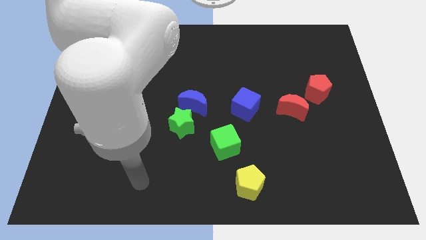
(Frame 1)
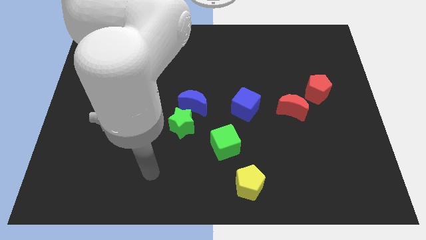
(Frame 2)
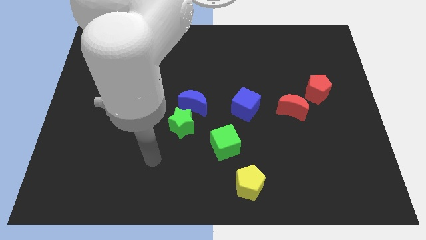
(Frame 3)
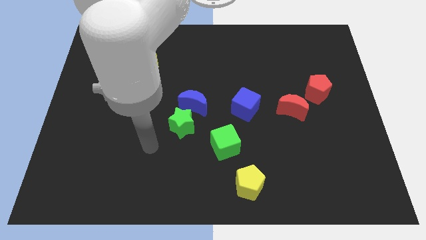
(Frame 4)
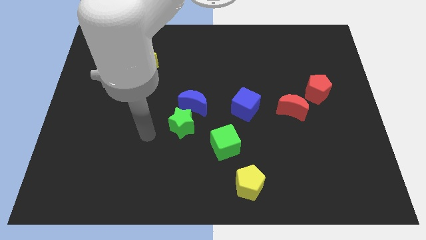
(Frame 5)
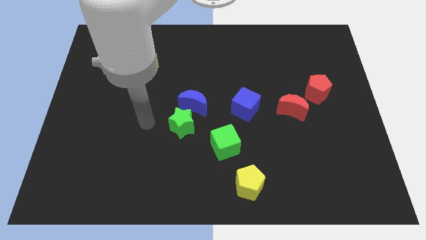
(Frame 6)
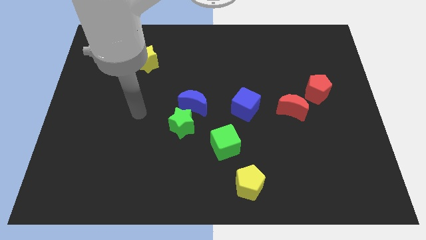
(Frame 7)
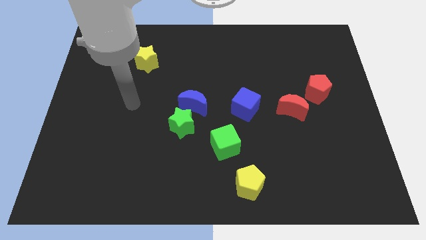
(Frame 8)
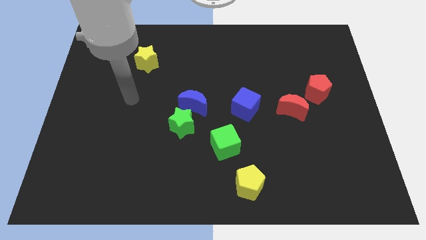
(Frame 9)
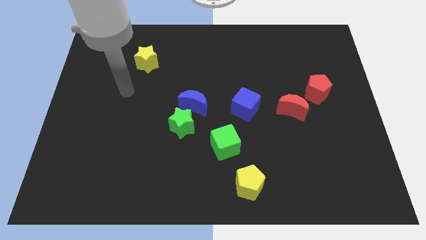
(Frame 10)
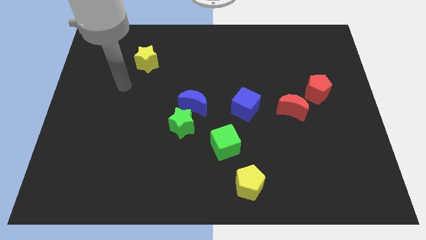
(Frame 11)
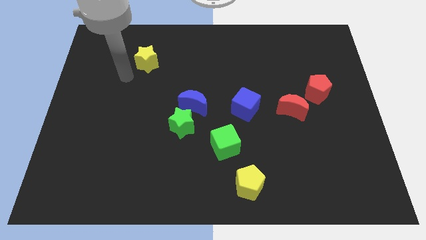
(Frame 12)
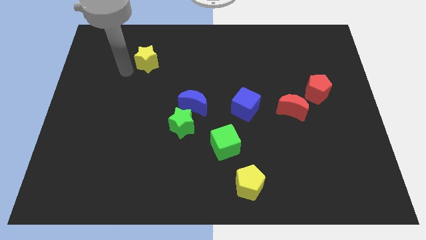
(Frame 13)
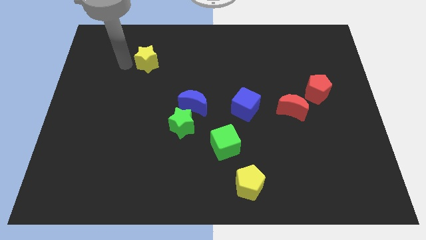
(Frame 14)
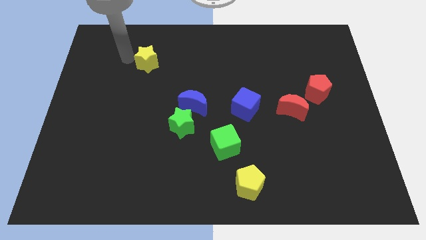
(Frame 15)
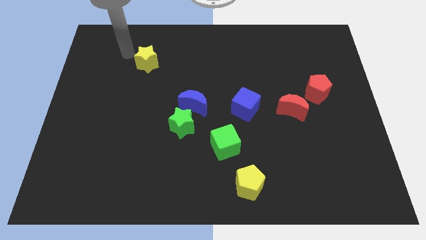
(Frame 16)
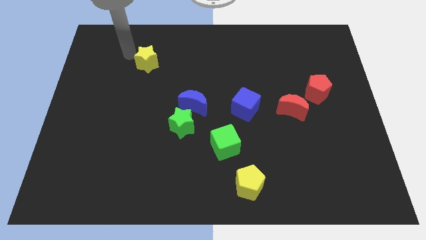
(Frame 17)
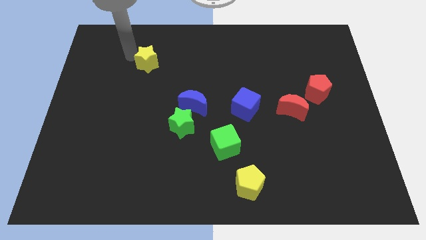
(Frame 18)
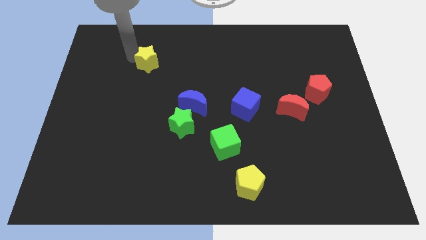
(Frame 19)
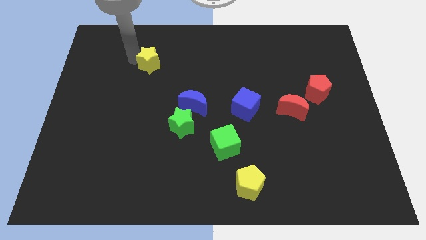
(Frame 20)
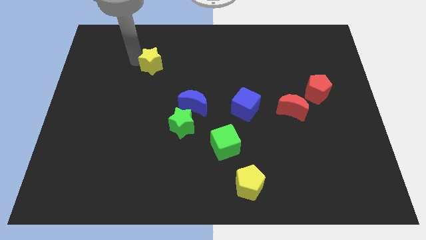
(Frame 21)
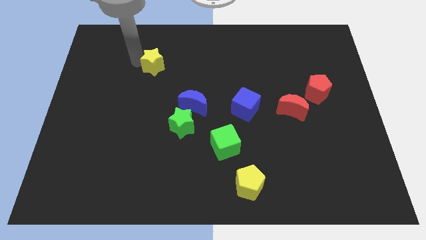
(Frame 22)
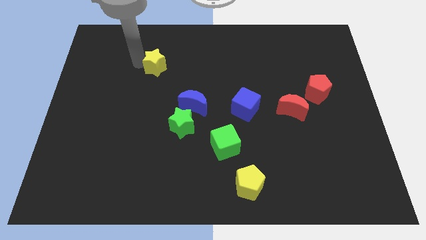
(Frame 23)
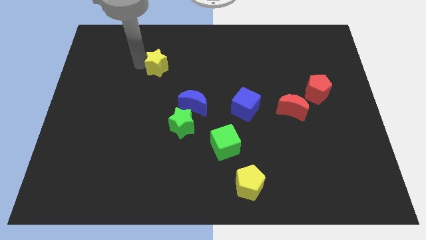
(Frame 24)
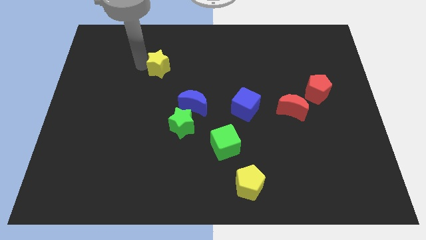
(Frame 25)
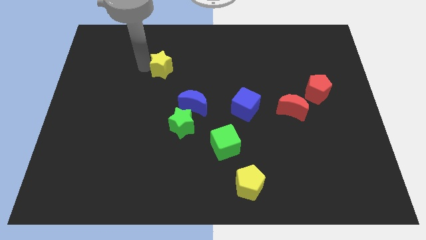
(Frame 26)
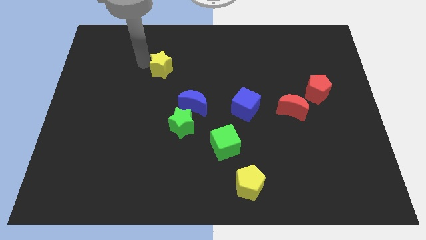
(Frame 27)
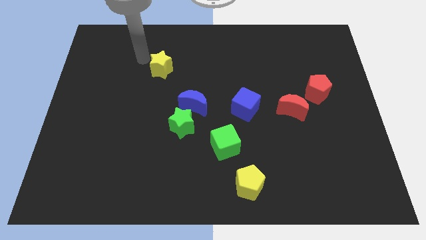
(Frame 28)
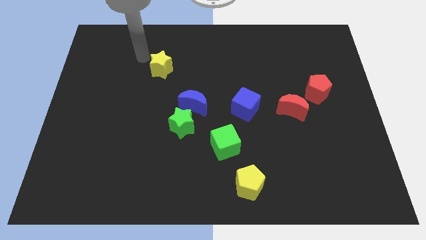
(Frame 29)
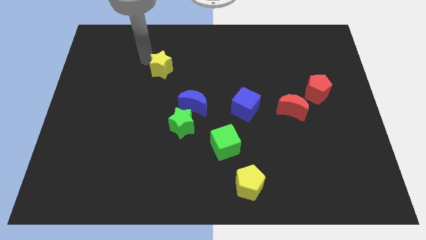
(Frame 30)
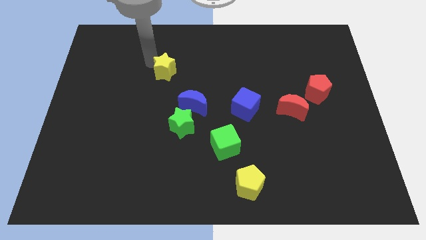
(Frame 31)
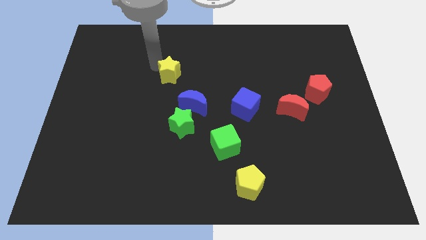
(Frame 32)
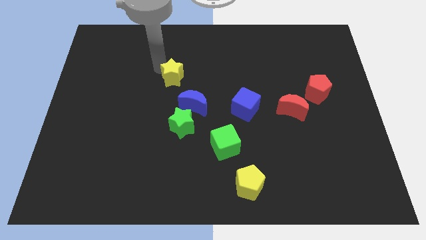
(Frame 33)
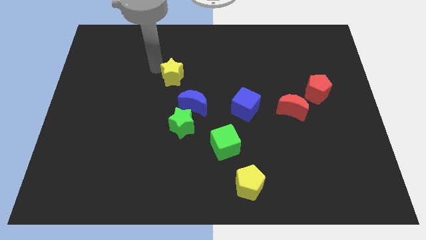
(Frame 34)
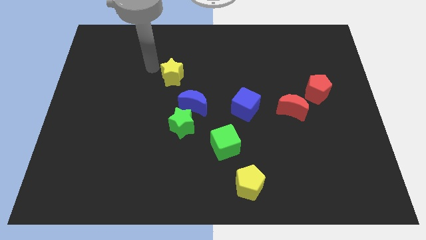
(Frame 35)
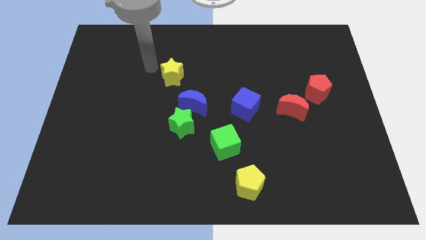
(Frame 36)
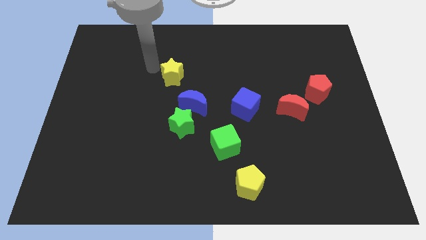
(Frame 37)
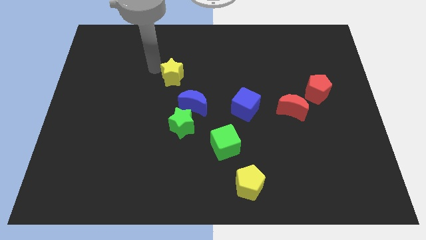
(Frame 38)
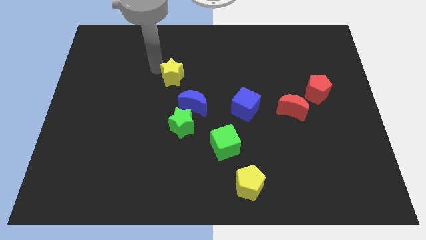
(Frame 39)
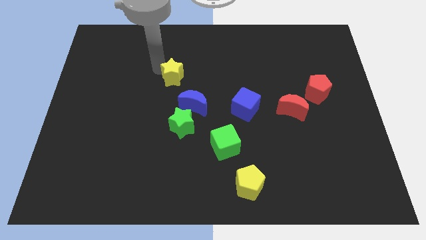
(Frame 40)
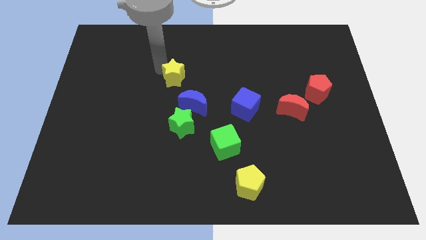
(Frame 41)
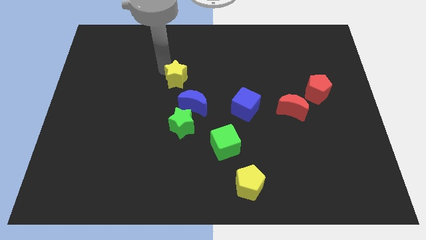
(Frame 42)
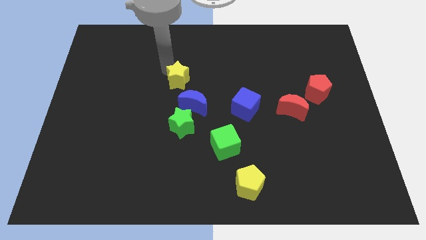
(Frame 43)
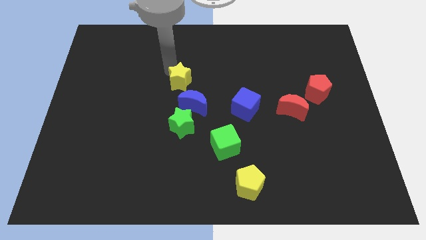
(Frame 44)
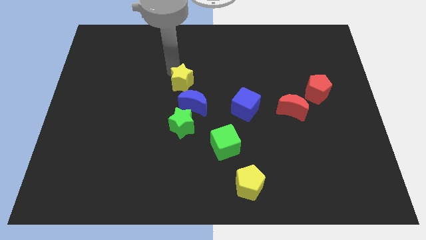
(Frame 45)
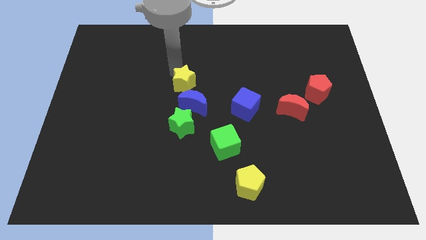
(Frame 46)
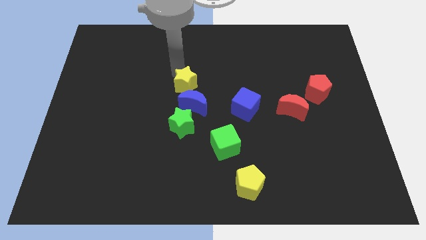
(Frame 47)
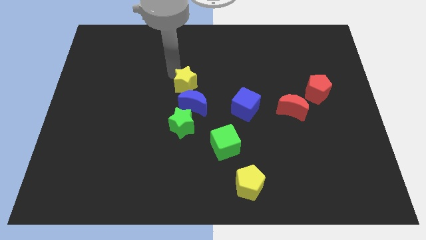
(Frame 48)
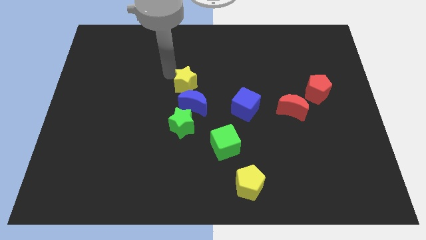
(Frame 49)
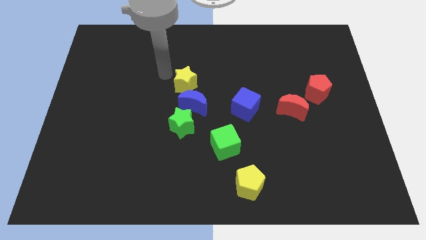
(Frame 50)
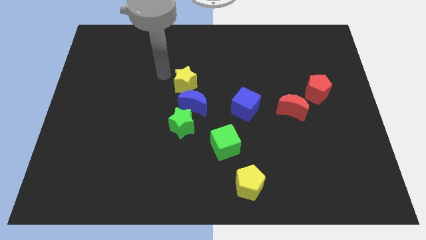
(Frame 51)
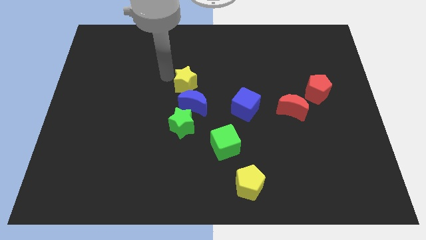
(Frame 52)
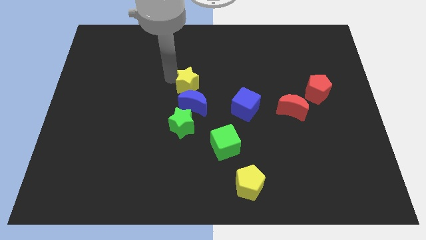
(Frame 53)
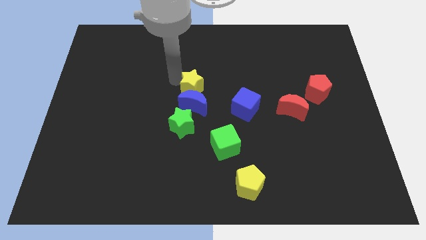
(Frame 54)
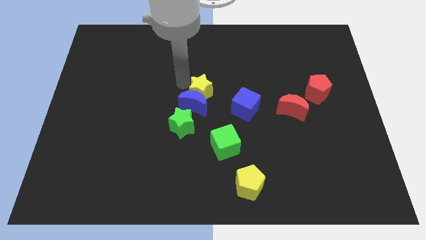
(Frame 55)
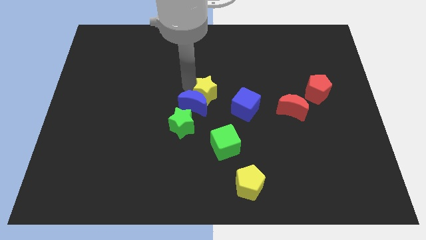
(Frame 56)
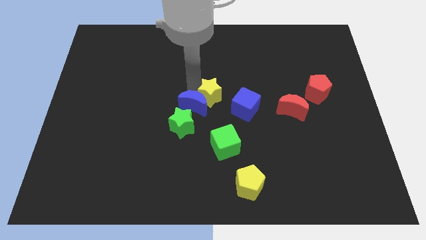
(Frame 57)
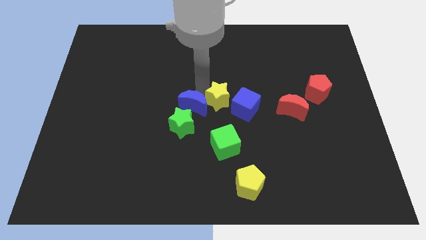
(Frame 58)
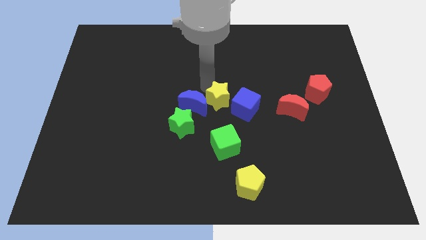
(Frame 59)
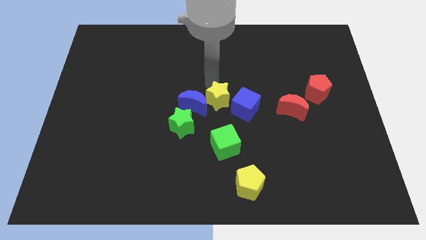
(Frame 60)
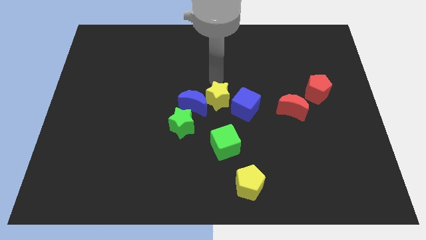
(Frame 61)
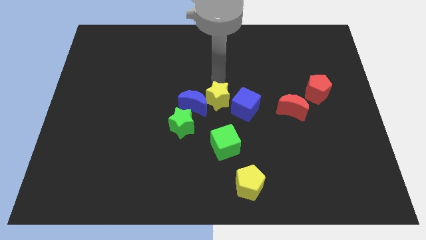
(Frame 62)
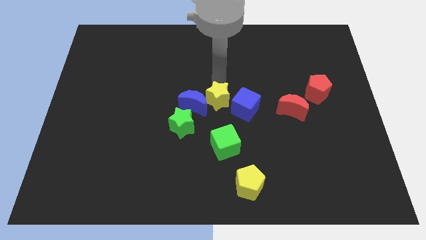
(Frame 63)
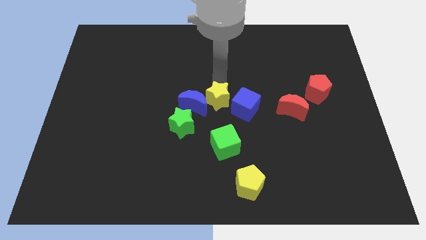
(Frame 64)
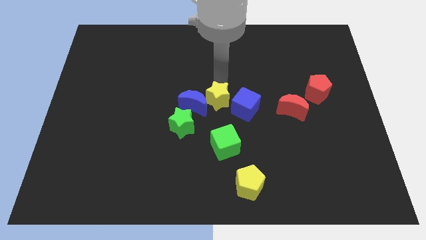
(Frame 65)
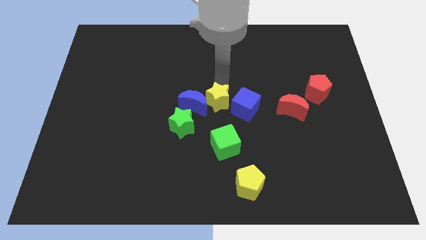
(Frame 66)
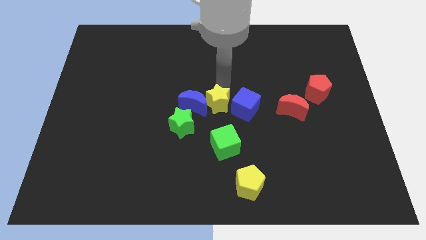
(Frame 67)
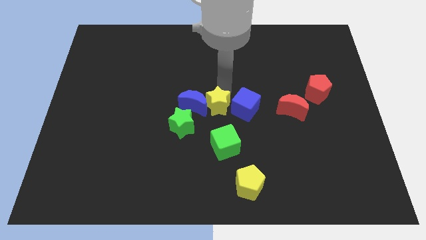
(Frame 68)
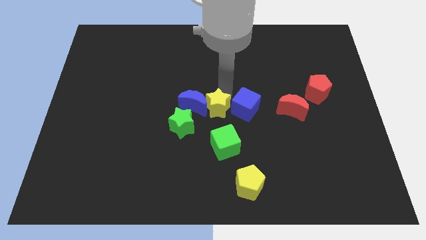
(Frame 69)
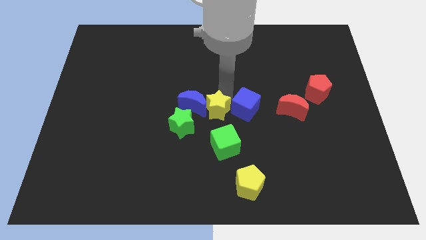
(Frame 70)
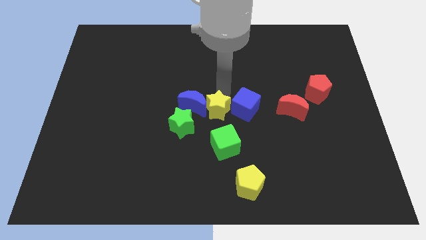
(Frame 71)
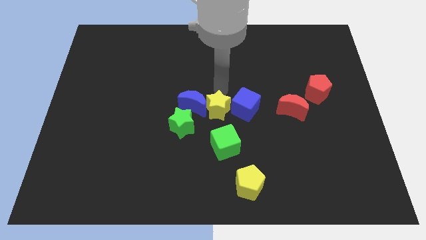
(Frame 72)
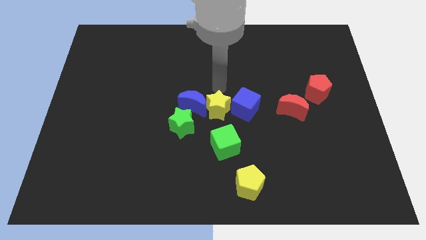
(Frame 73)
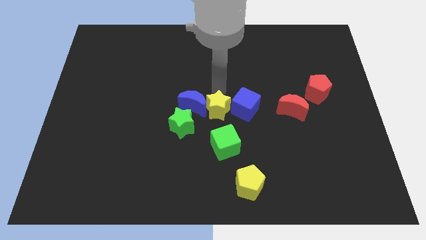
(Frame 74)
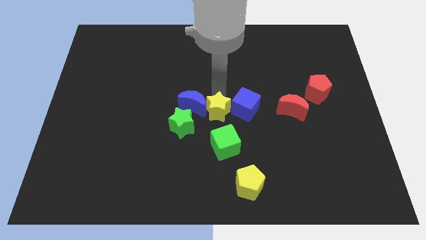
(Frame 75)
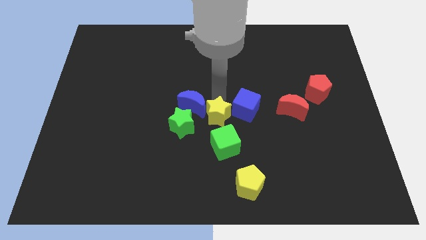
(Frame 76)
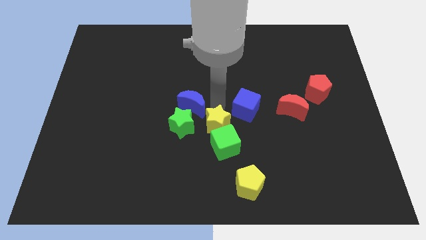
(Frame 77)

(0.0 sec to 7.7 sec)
slide the yellow star towards the green cube
